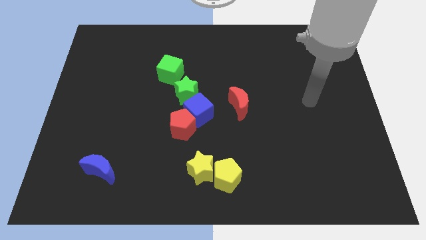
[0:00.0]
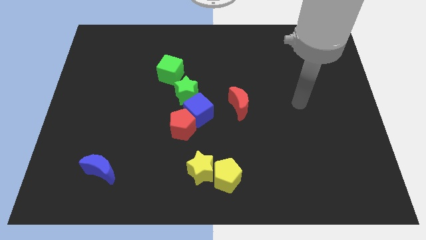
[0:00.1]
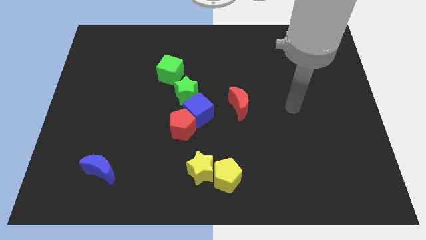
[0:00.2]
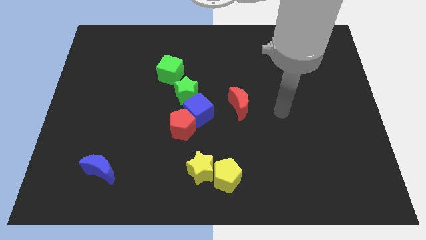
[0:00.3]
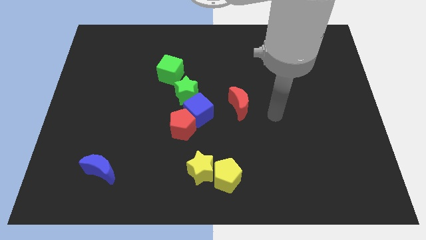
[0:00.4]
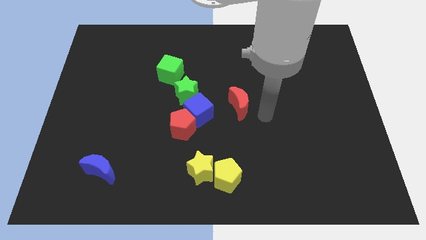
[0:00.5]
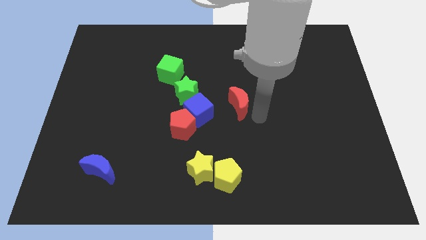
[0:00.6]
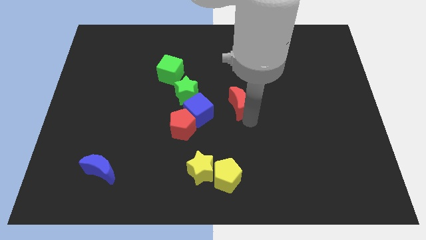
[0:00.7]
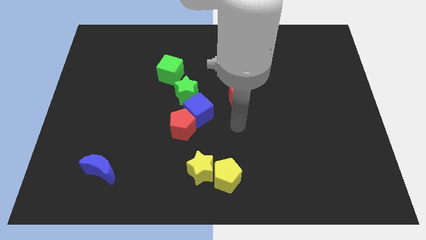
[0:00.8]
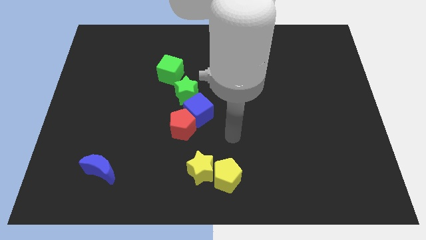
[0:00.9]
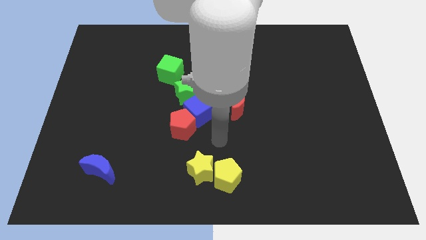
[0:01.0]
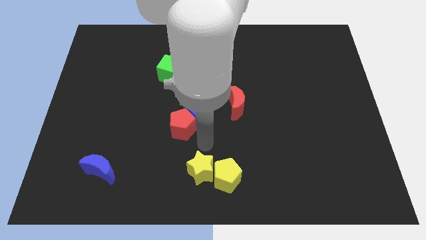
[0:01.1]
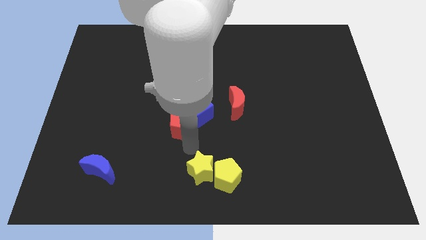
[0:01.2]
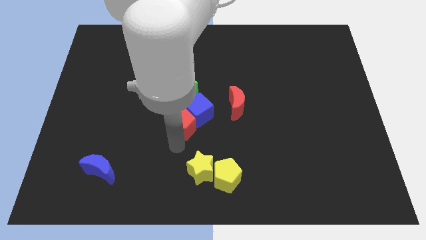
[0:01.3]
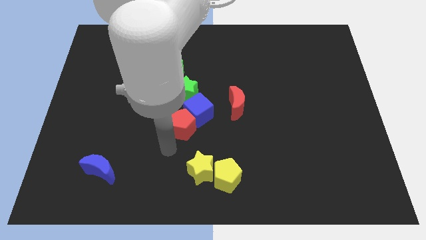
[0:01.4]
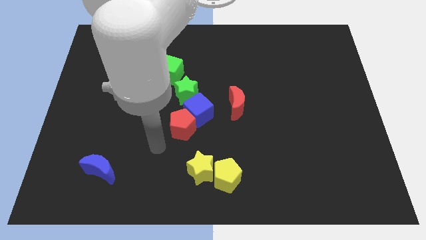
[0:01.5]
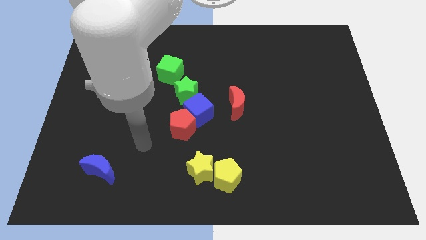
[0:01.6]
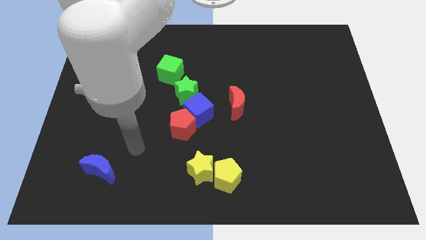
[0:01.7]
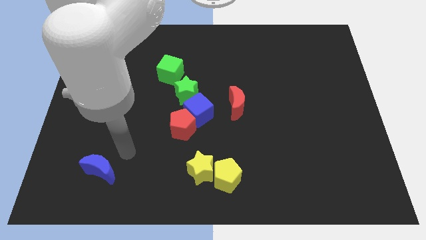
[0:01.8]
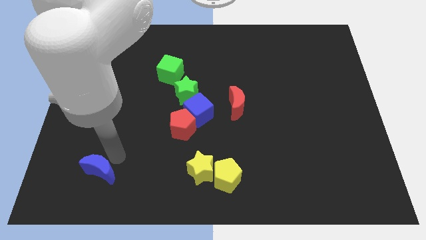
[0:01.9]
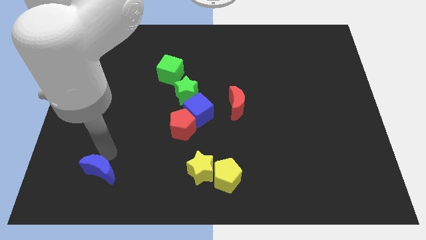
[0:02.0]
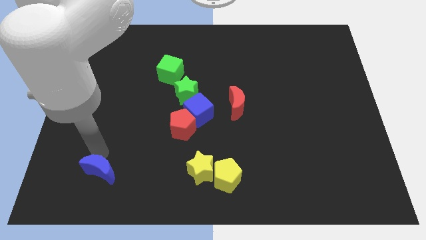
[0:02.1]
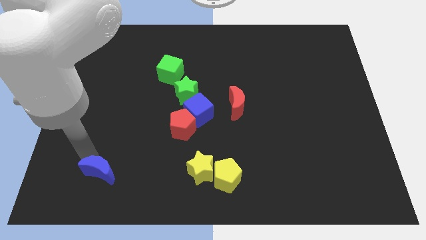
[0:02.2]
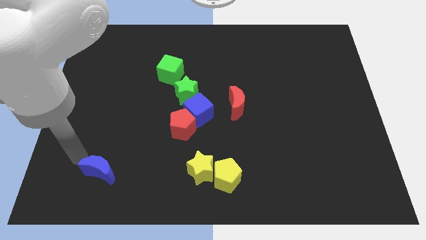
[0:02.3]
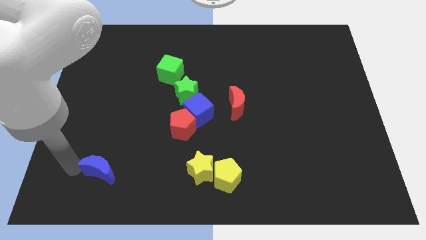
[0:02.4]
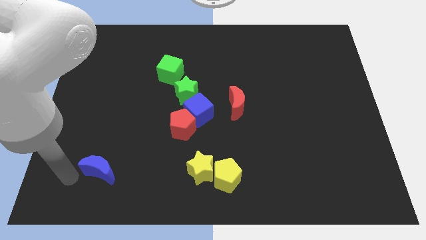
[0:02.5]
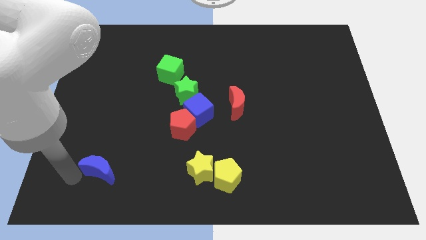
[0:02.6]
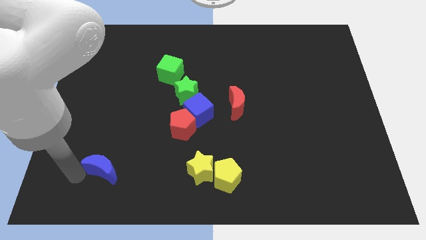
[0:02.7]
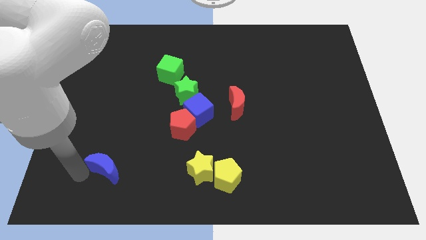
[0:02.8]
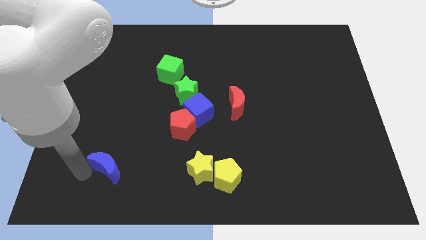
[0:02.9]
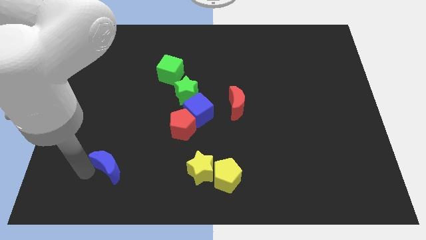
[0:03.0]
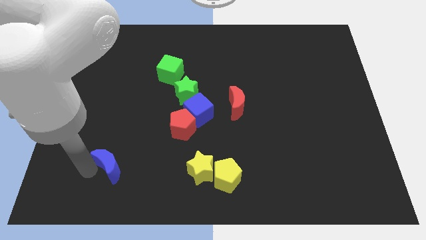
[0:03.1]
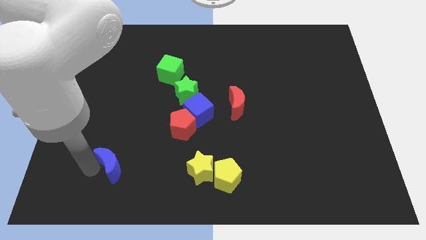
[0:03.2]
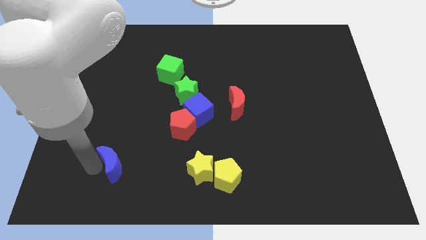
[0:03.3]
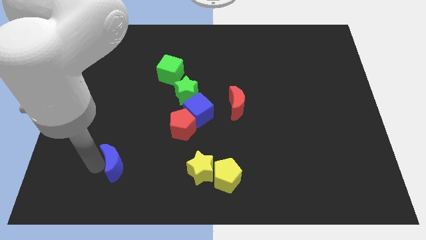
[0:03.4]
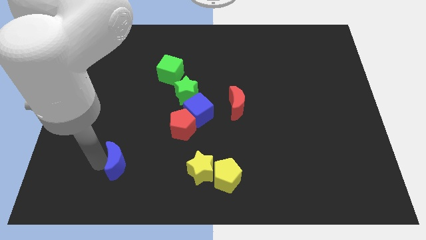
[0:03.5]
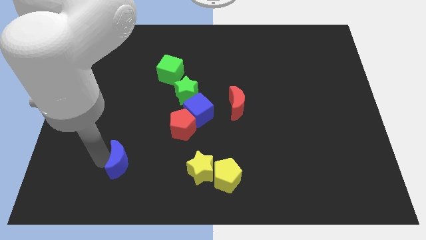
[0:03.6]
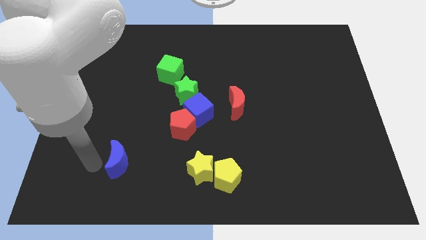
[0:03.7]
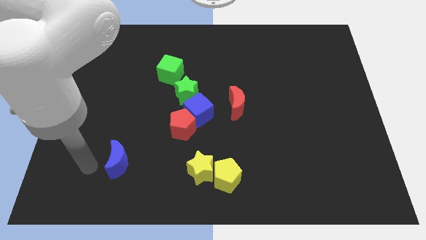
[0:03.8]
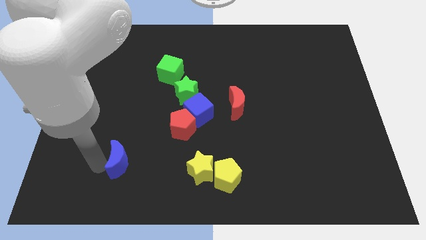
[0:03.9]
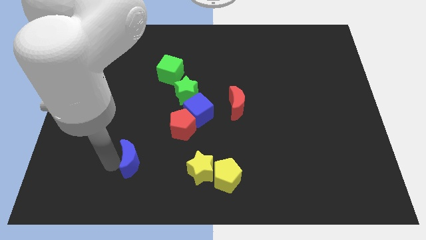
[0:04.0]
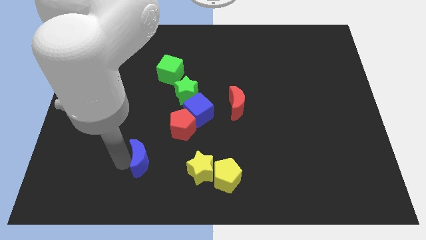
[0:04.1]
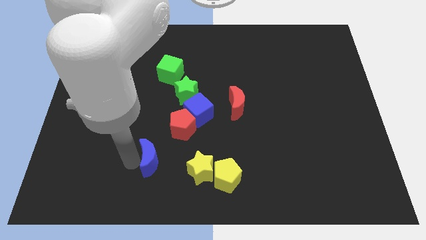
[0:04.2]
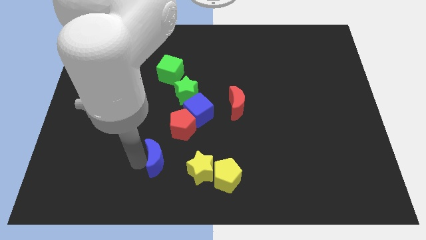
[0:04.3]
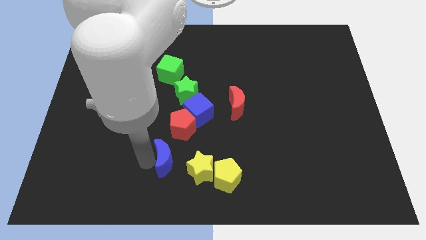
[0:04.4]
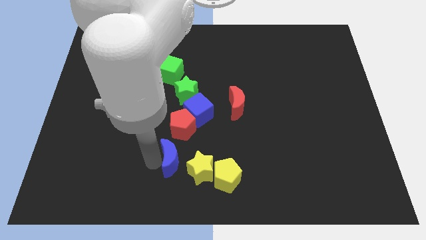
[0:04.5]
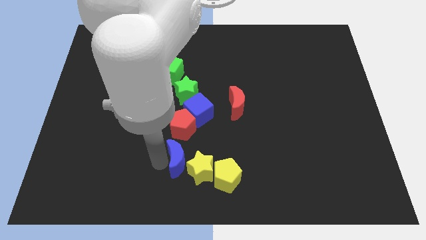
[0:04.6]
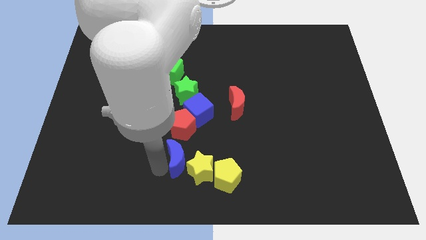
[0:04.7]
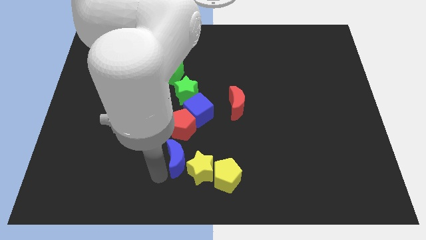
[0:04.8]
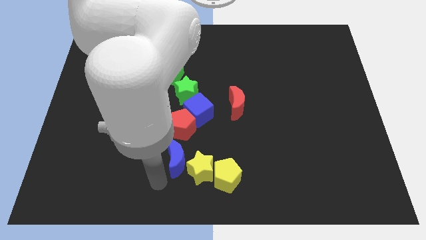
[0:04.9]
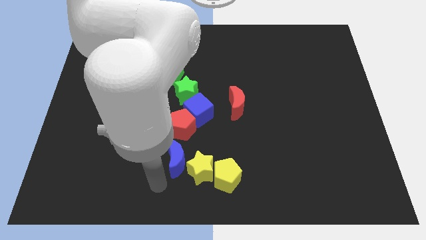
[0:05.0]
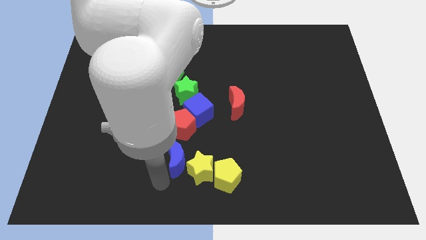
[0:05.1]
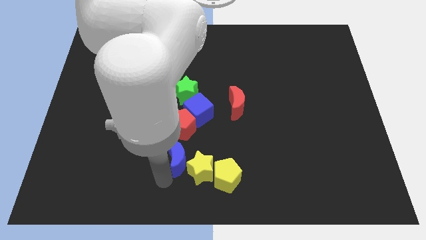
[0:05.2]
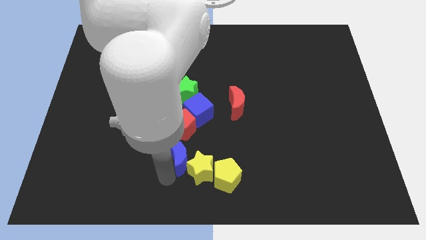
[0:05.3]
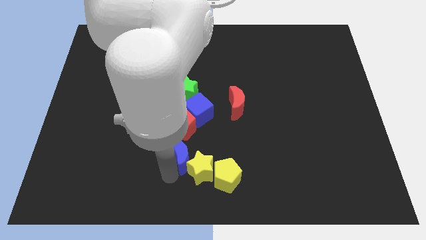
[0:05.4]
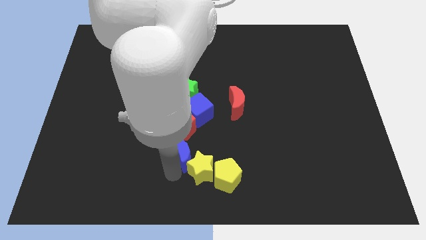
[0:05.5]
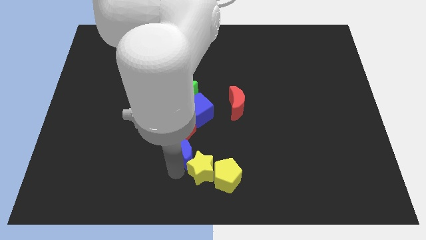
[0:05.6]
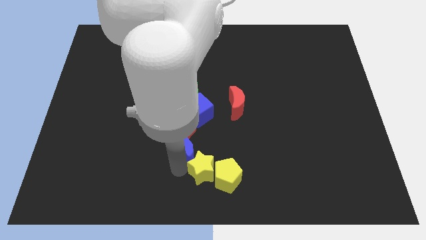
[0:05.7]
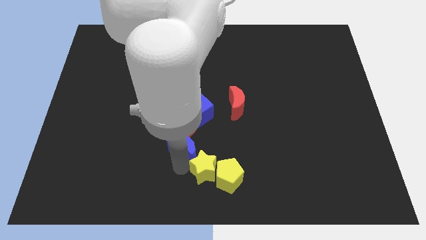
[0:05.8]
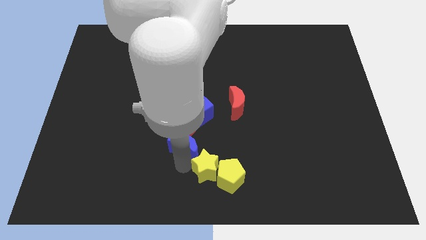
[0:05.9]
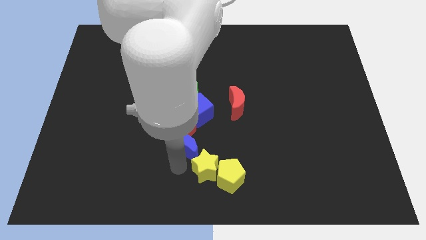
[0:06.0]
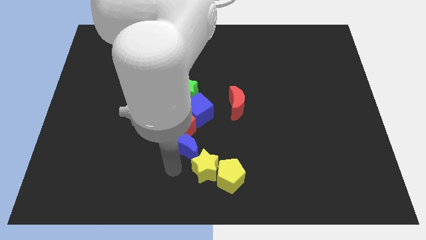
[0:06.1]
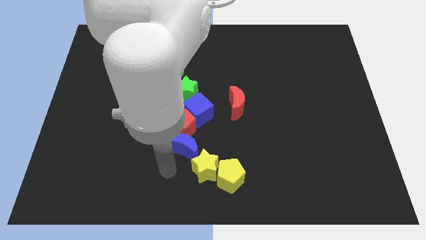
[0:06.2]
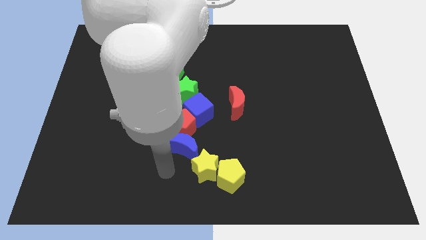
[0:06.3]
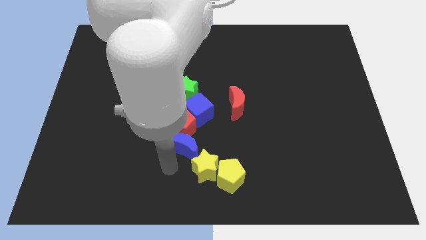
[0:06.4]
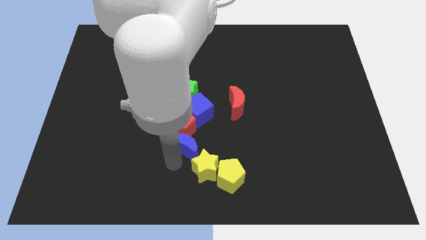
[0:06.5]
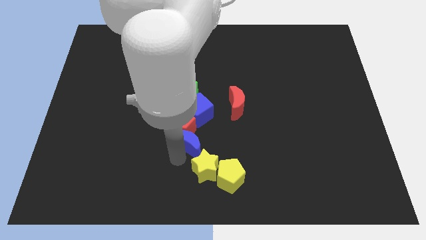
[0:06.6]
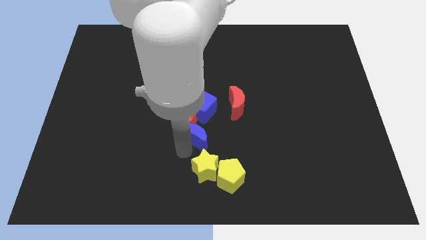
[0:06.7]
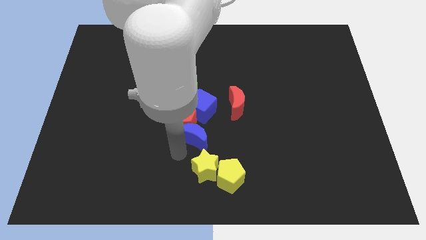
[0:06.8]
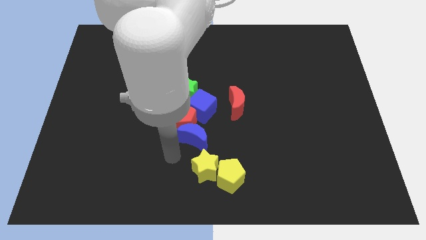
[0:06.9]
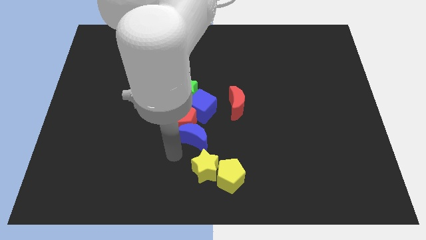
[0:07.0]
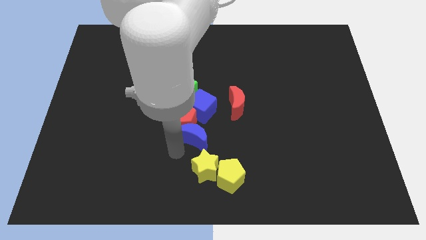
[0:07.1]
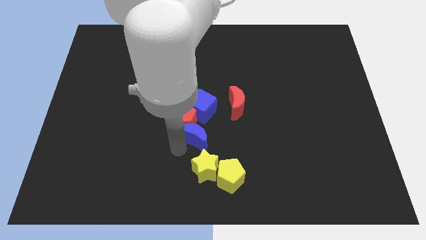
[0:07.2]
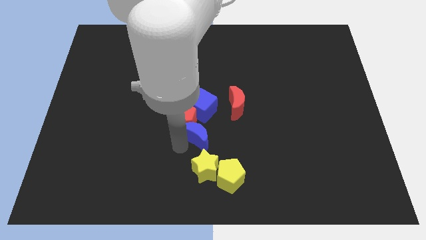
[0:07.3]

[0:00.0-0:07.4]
move the blue moon diagonally down and to the left of the red moon

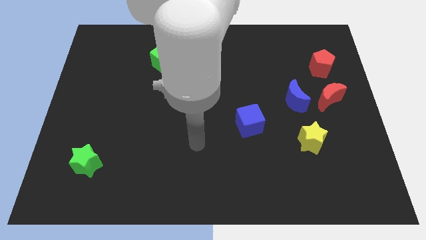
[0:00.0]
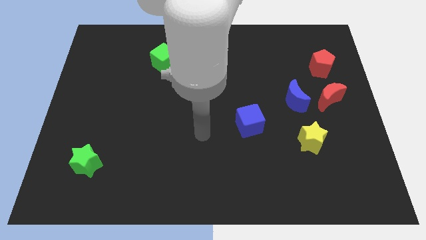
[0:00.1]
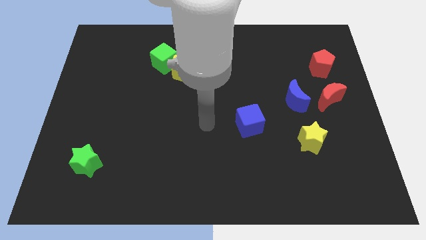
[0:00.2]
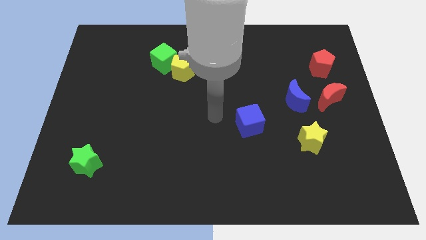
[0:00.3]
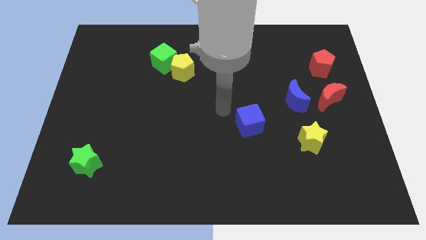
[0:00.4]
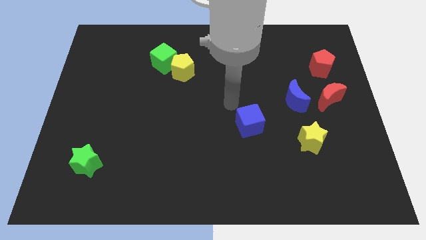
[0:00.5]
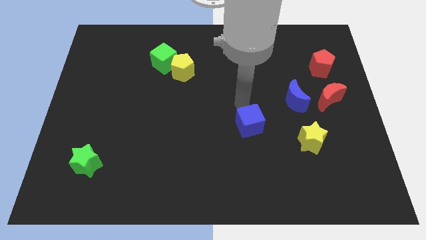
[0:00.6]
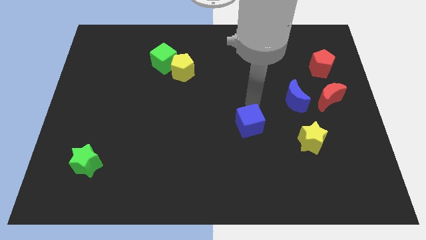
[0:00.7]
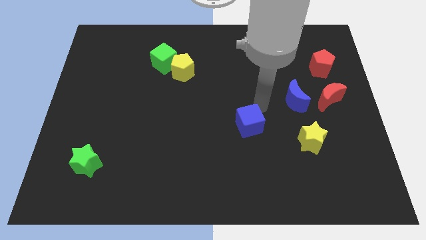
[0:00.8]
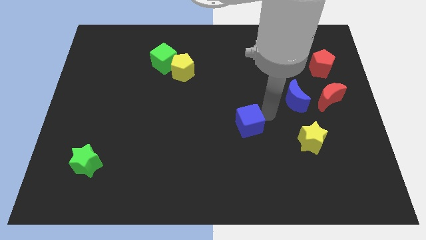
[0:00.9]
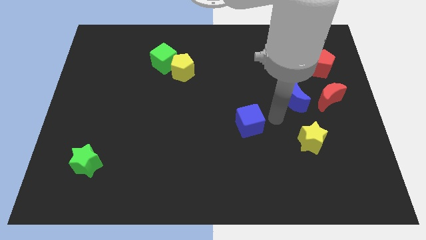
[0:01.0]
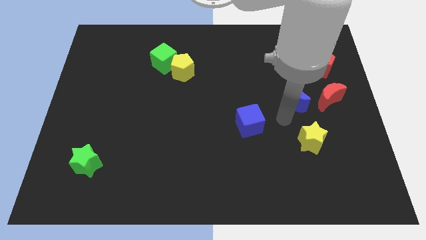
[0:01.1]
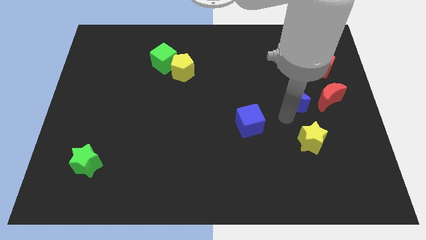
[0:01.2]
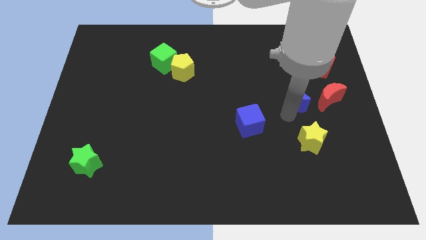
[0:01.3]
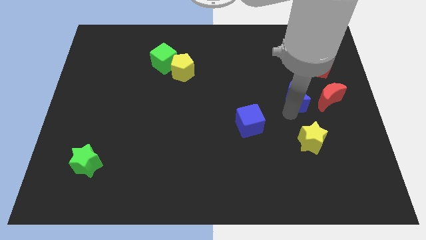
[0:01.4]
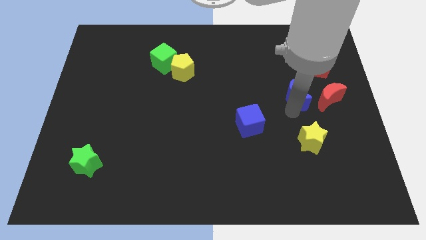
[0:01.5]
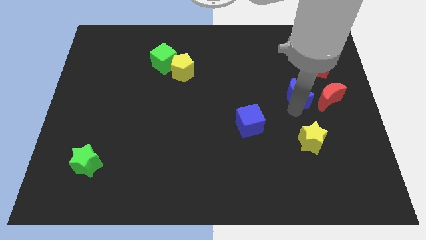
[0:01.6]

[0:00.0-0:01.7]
push the blue moon diagonally down and to the left of the red pentagon
